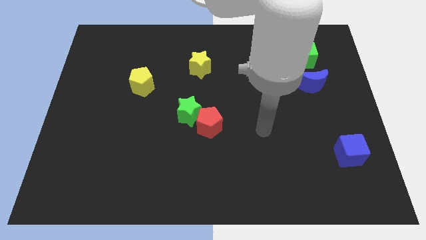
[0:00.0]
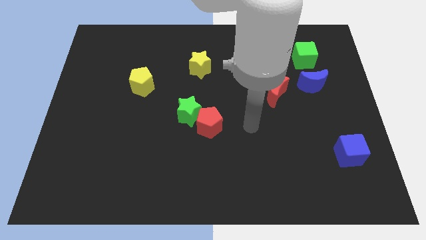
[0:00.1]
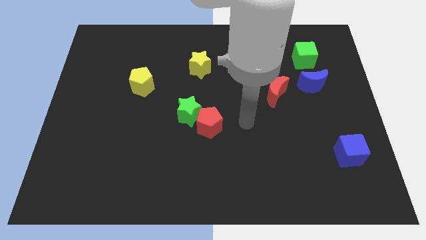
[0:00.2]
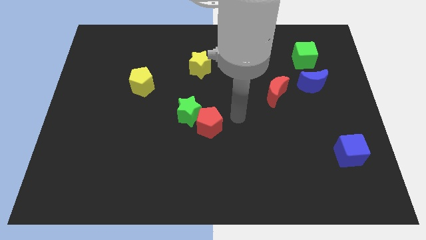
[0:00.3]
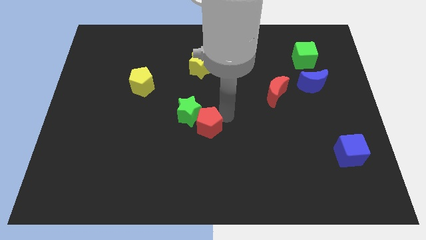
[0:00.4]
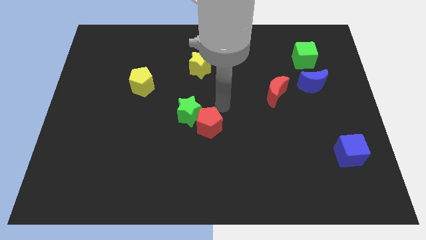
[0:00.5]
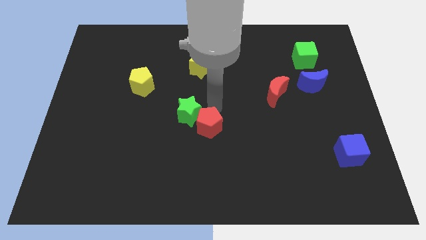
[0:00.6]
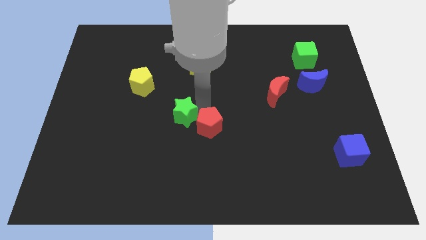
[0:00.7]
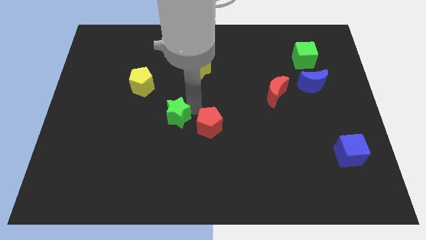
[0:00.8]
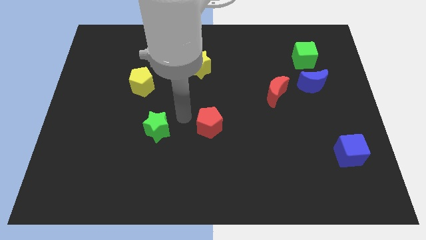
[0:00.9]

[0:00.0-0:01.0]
move the red pentagon away from the green star

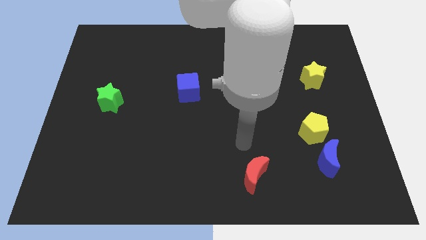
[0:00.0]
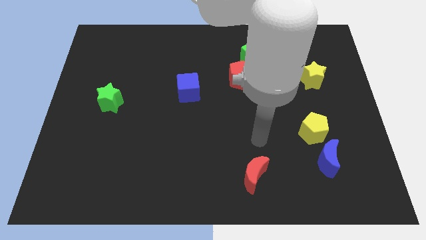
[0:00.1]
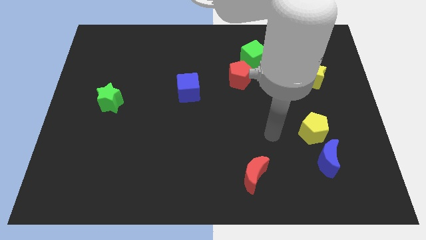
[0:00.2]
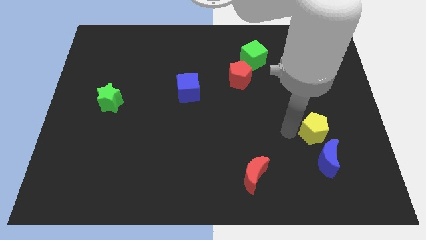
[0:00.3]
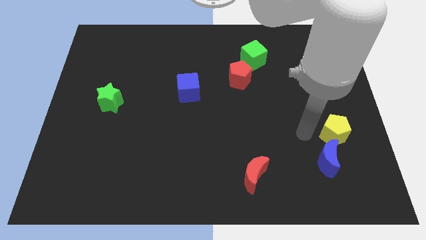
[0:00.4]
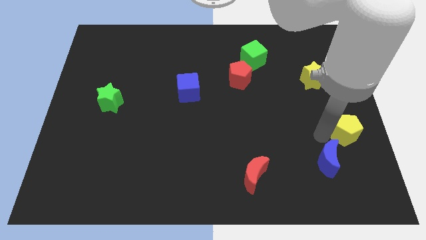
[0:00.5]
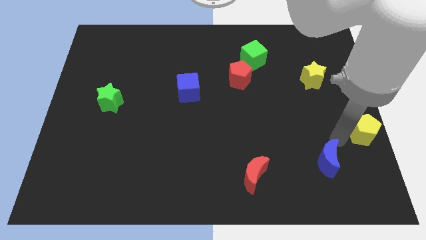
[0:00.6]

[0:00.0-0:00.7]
separate the blue moon from the yellow pentagon

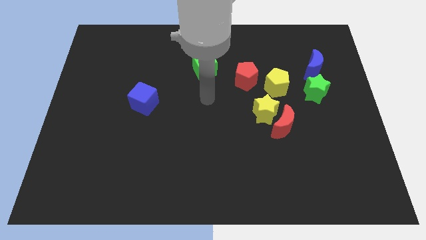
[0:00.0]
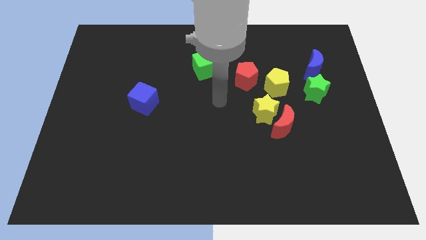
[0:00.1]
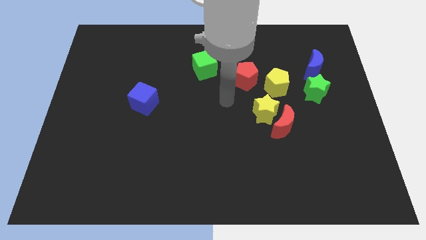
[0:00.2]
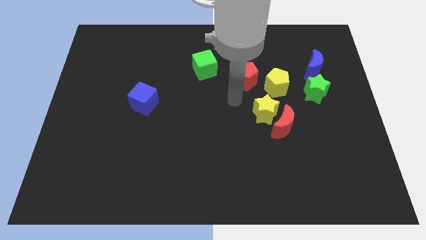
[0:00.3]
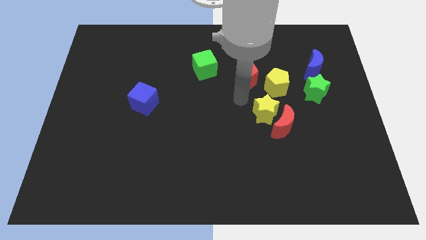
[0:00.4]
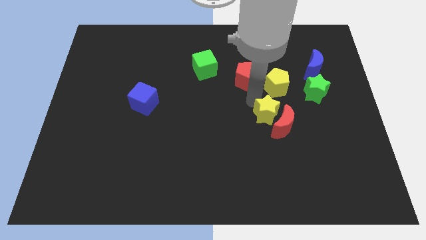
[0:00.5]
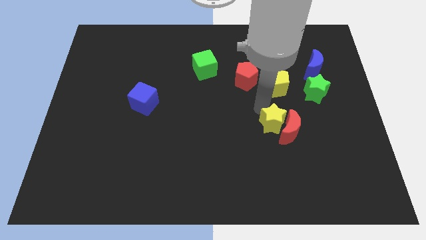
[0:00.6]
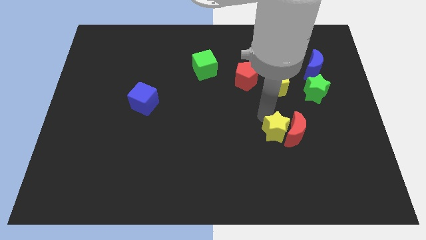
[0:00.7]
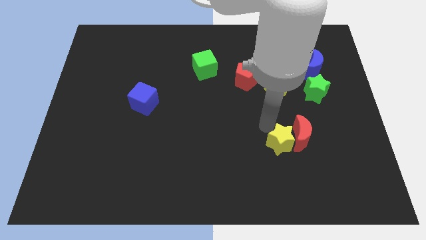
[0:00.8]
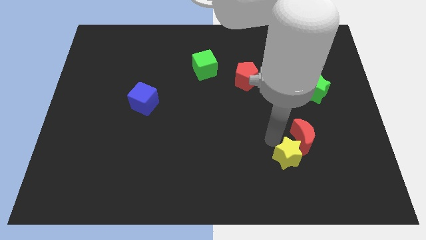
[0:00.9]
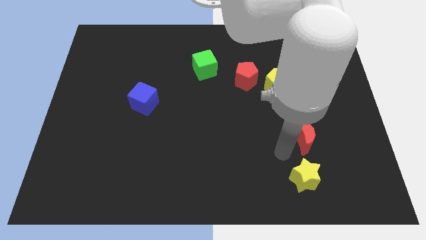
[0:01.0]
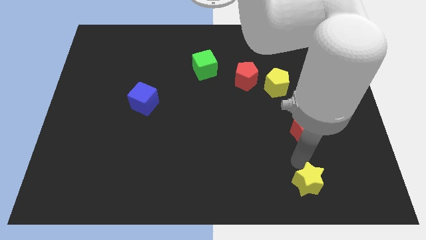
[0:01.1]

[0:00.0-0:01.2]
move the red moon away from the yellow star

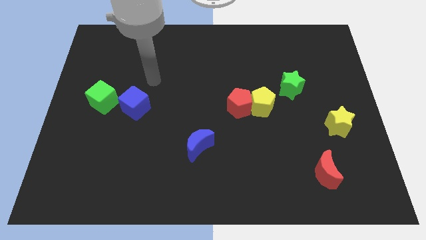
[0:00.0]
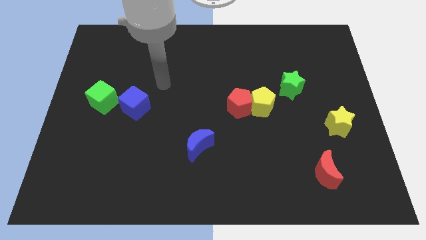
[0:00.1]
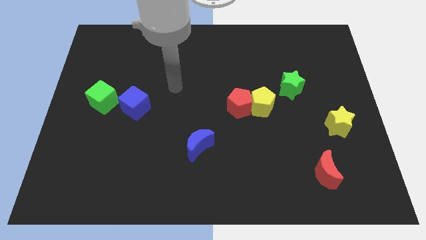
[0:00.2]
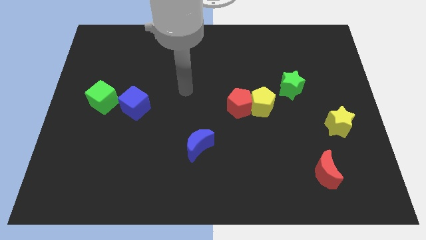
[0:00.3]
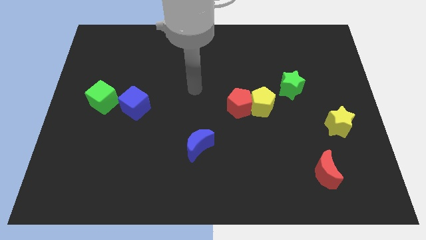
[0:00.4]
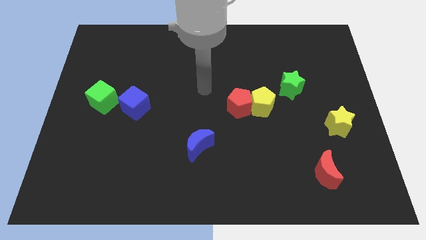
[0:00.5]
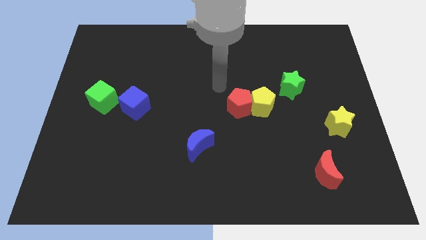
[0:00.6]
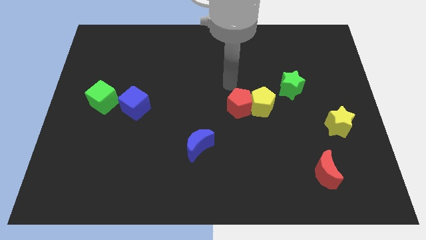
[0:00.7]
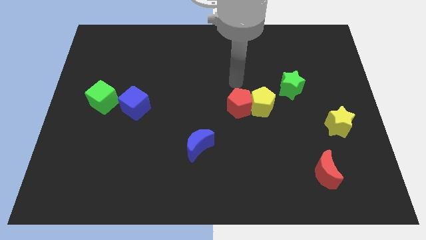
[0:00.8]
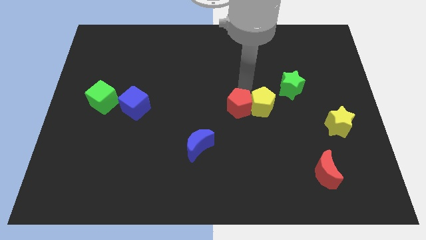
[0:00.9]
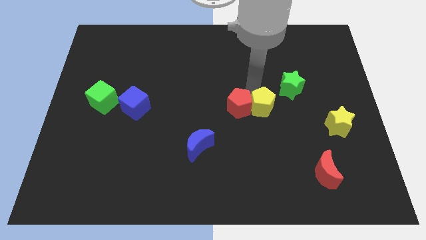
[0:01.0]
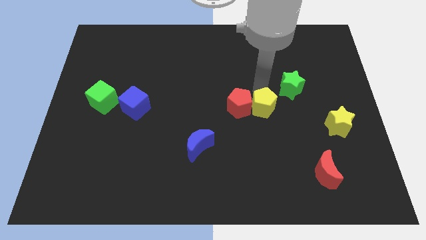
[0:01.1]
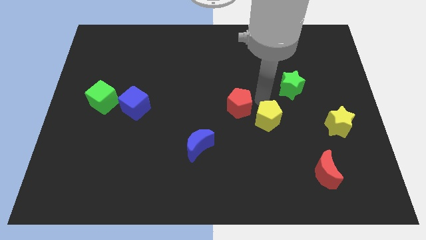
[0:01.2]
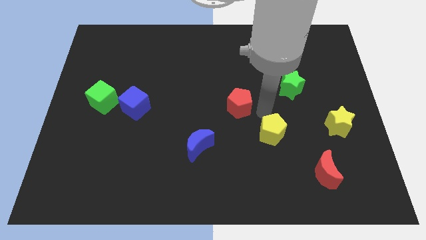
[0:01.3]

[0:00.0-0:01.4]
separate the red pentagon from the yellow pentagon

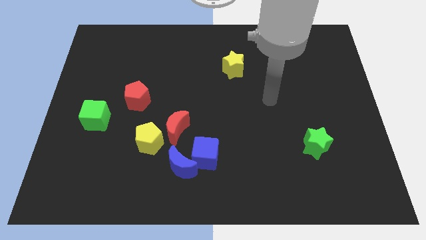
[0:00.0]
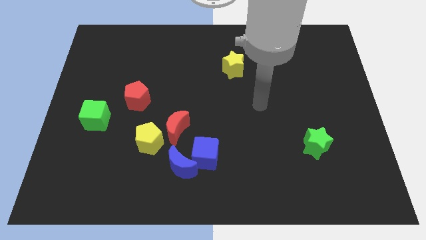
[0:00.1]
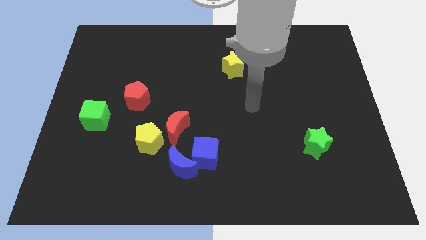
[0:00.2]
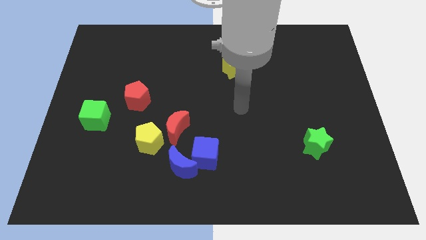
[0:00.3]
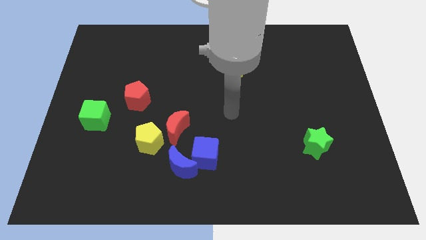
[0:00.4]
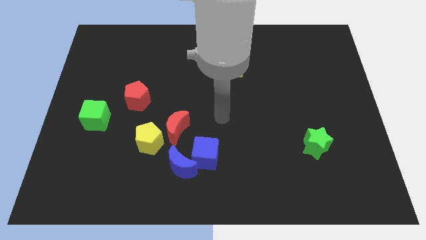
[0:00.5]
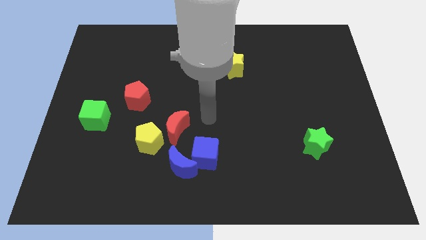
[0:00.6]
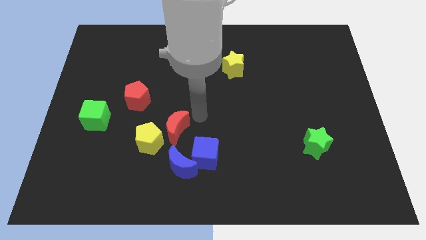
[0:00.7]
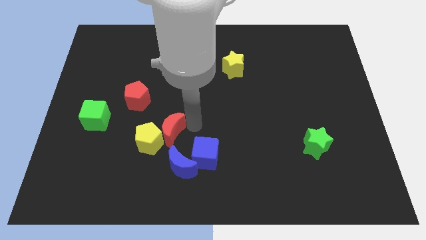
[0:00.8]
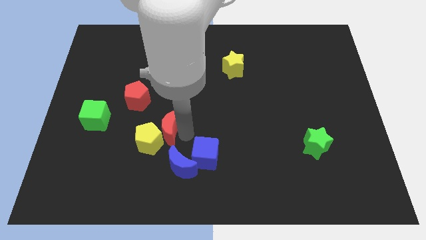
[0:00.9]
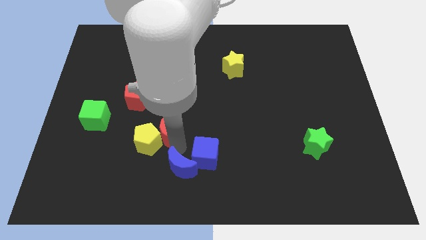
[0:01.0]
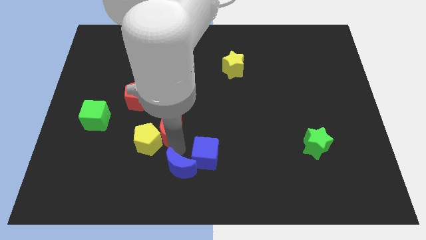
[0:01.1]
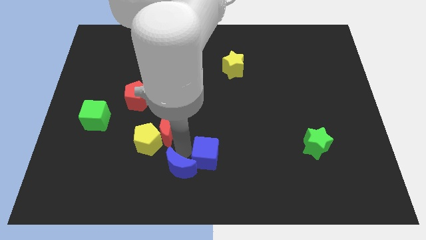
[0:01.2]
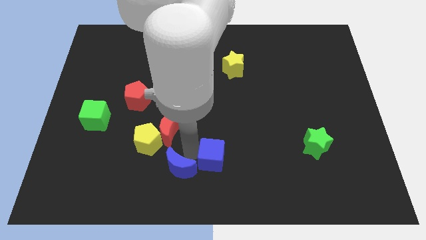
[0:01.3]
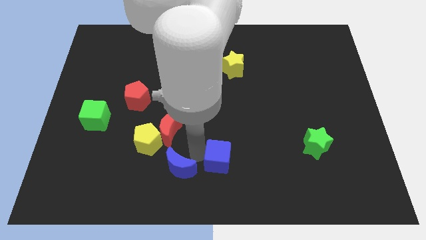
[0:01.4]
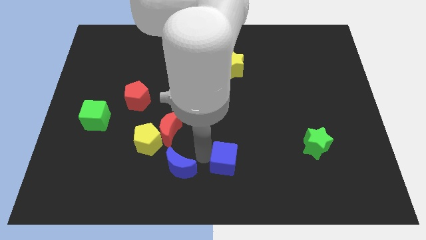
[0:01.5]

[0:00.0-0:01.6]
separate the blue cube from the blue moon and red moon

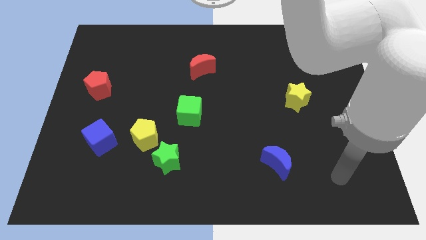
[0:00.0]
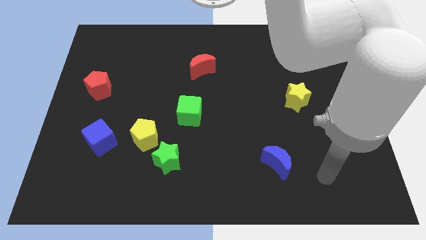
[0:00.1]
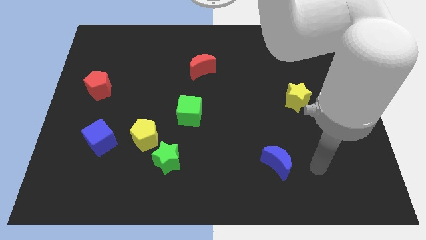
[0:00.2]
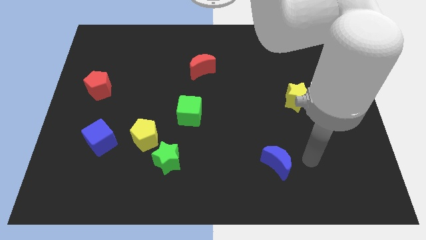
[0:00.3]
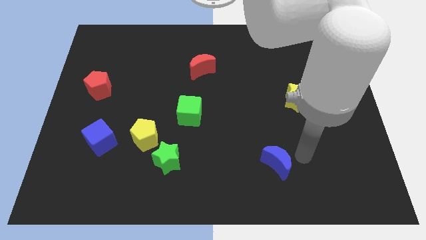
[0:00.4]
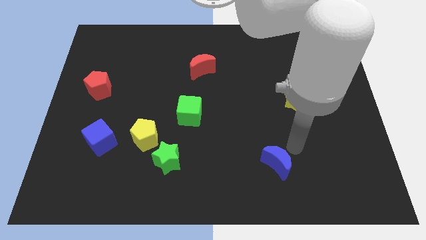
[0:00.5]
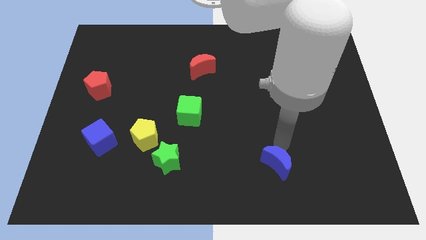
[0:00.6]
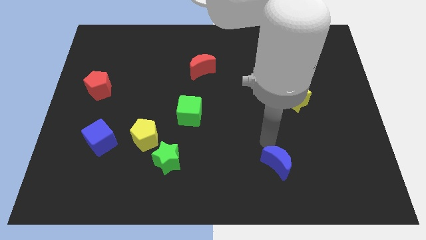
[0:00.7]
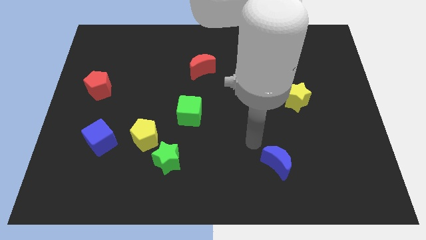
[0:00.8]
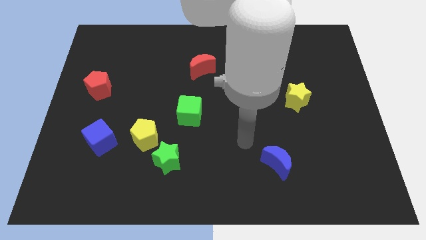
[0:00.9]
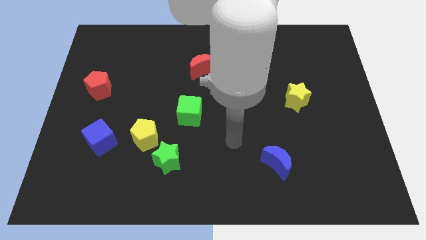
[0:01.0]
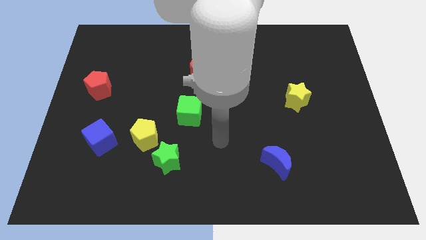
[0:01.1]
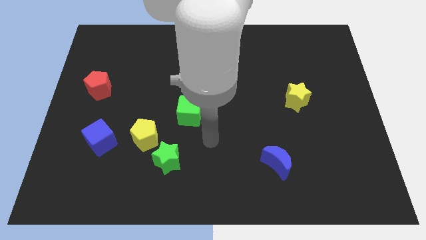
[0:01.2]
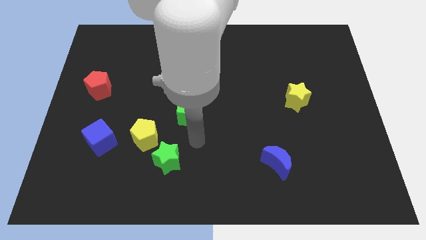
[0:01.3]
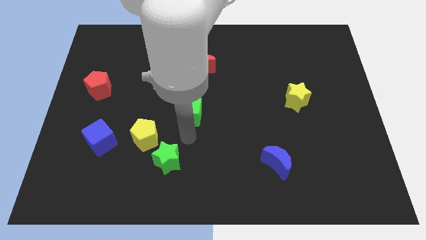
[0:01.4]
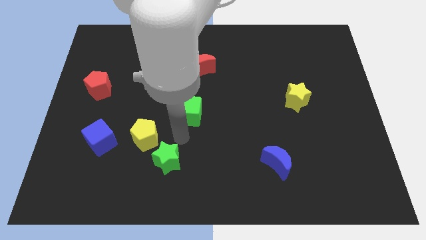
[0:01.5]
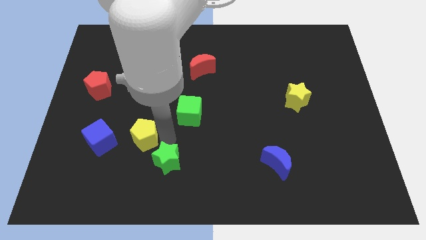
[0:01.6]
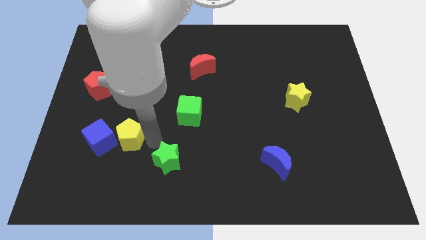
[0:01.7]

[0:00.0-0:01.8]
separate the green star from the yellow pentagon

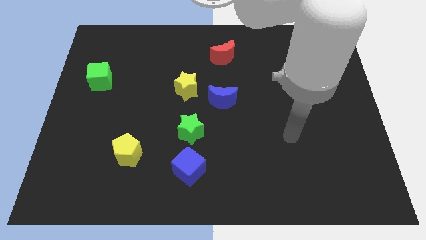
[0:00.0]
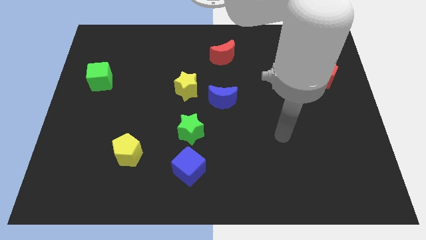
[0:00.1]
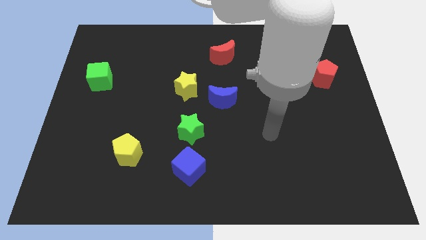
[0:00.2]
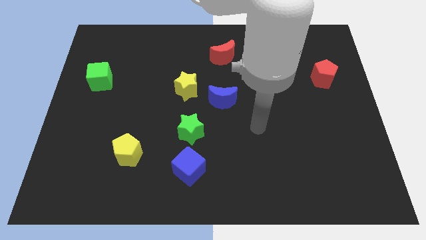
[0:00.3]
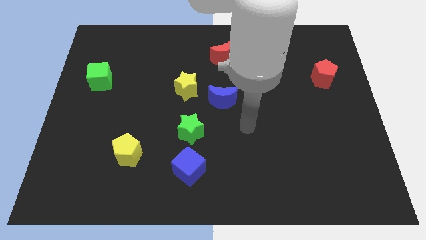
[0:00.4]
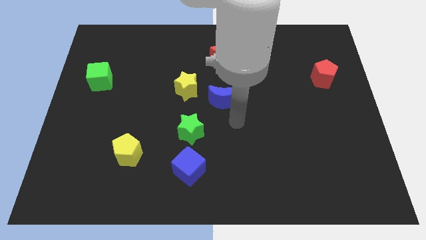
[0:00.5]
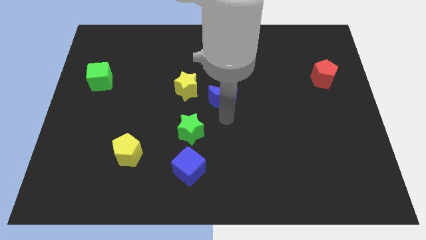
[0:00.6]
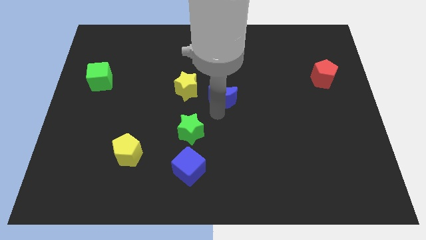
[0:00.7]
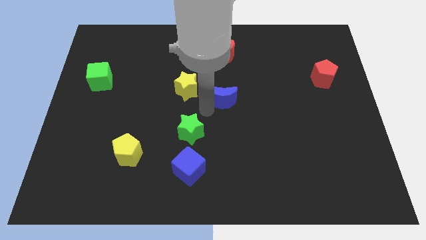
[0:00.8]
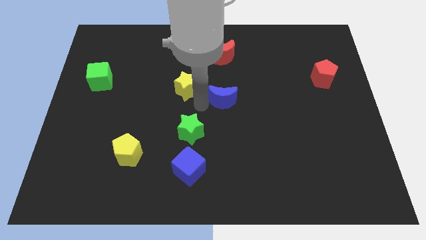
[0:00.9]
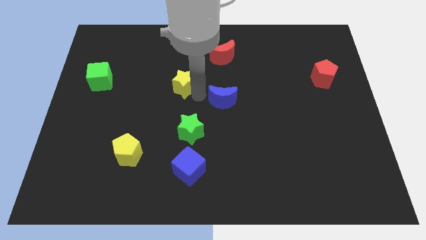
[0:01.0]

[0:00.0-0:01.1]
pull the blue moon apart from the yellow star

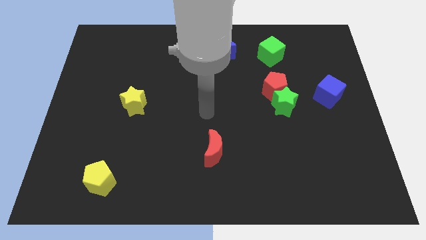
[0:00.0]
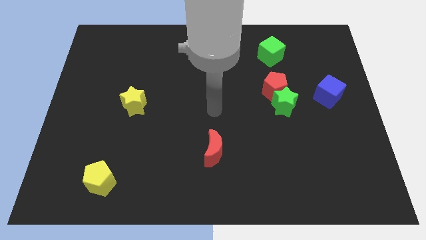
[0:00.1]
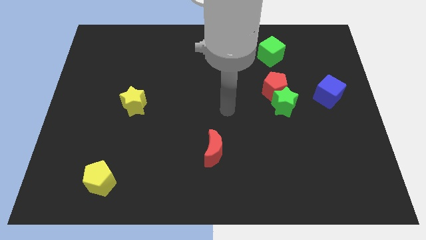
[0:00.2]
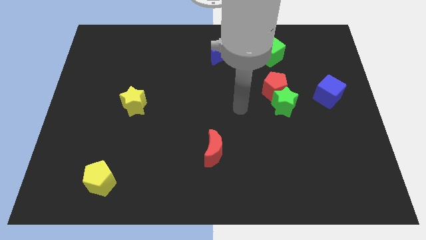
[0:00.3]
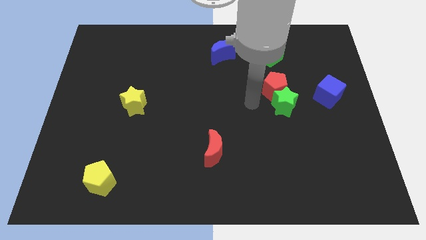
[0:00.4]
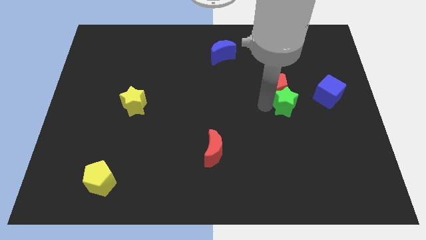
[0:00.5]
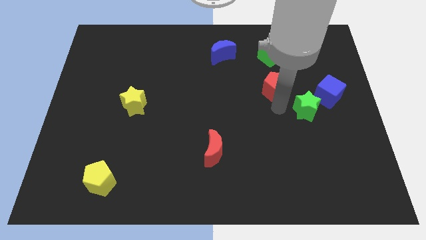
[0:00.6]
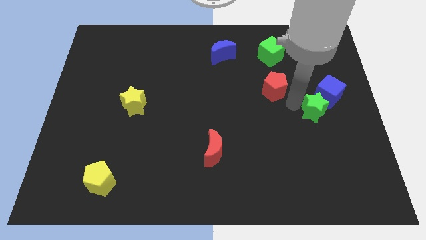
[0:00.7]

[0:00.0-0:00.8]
separate the red pentagon from the green star
